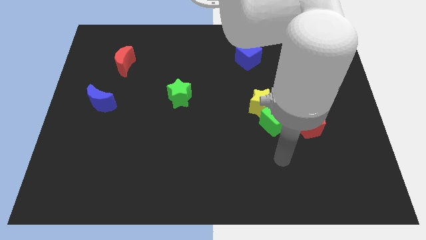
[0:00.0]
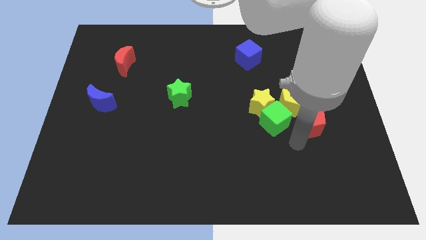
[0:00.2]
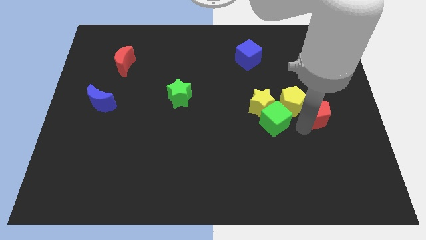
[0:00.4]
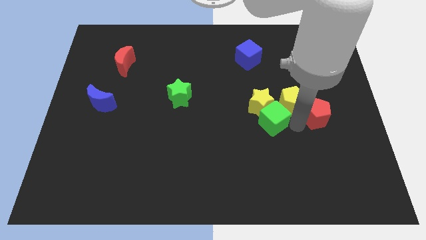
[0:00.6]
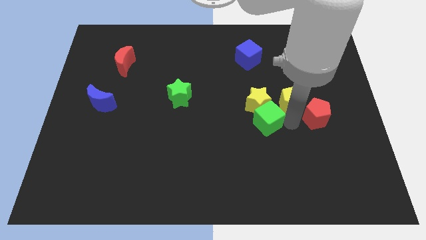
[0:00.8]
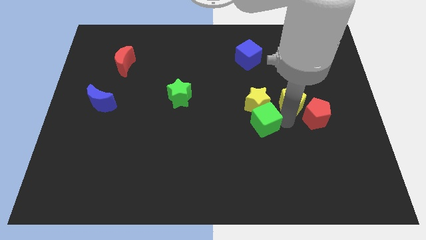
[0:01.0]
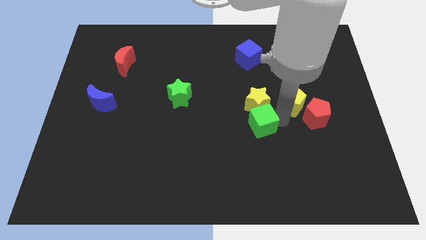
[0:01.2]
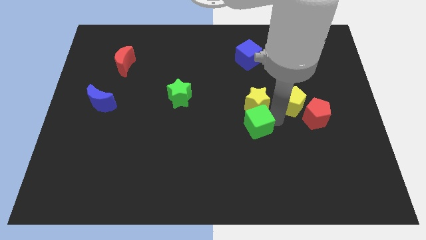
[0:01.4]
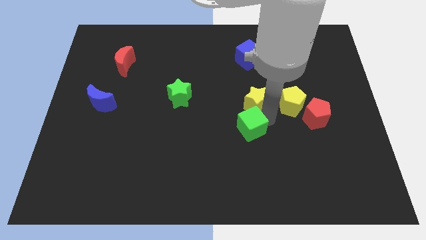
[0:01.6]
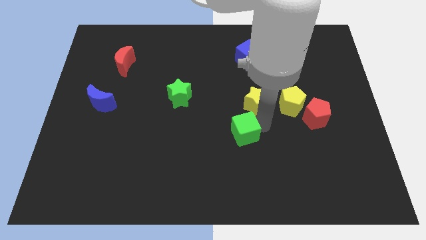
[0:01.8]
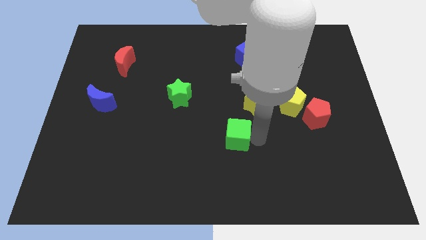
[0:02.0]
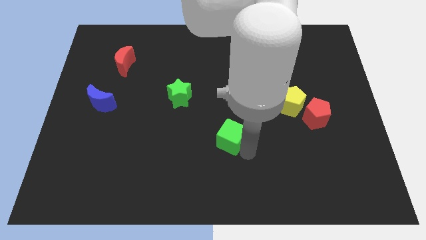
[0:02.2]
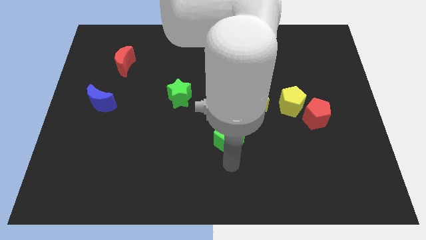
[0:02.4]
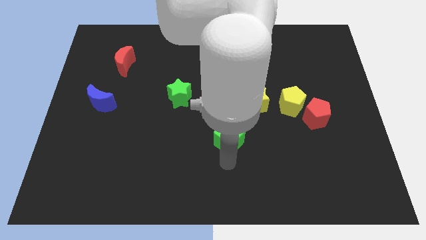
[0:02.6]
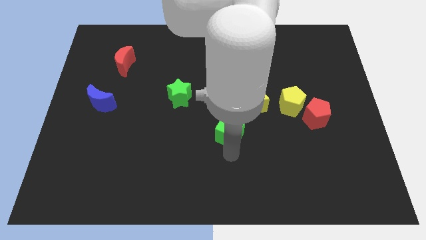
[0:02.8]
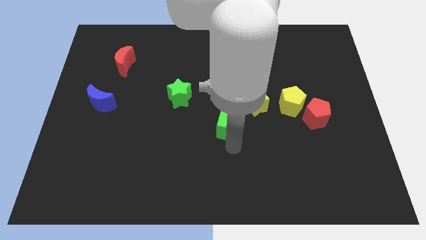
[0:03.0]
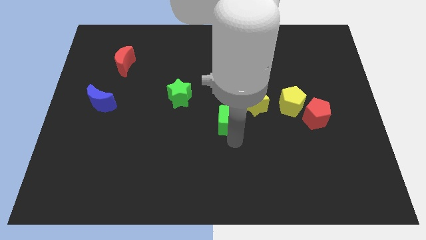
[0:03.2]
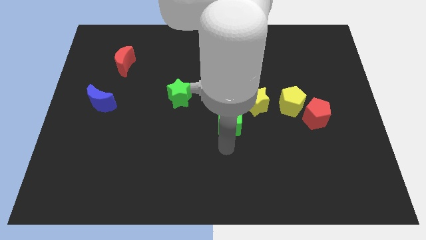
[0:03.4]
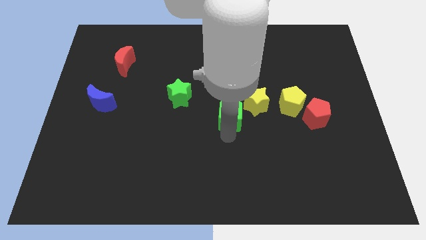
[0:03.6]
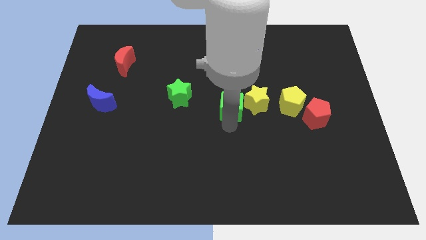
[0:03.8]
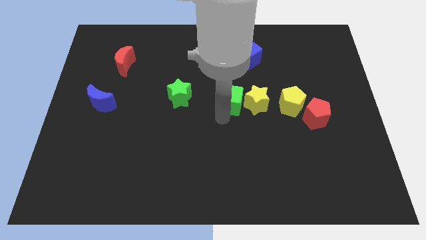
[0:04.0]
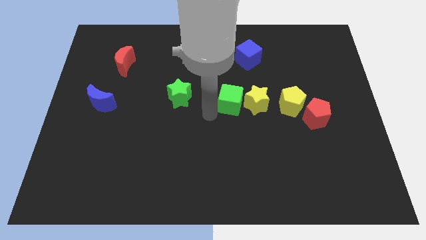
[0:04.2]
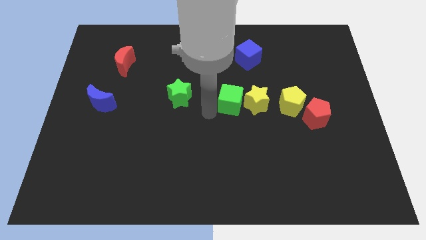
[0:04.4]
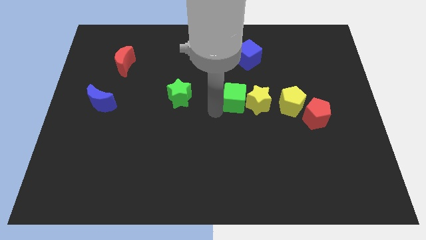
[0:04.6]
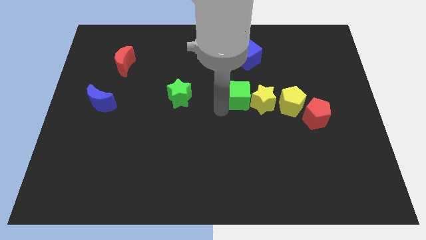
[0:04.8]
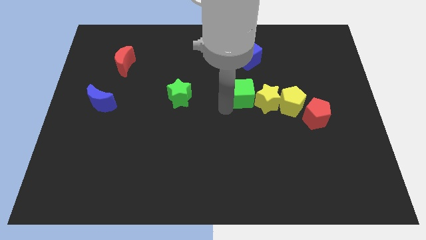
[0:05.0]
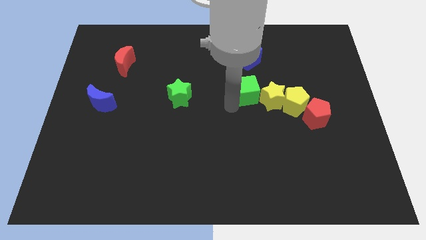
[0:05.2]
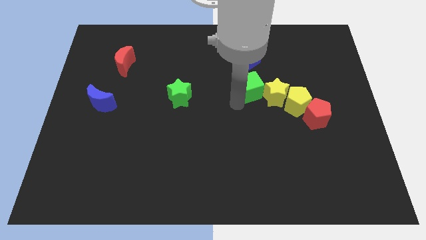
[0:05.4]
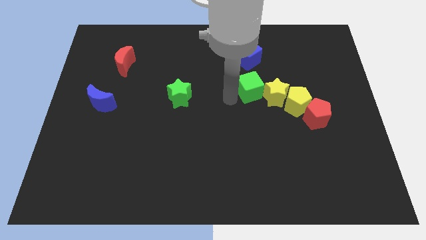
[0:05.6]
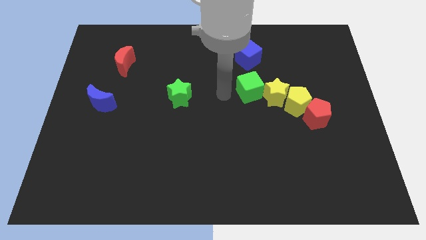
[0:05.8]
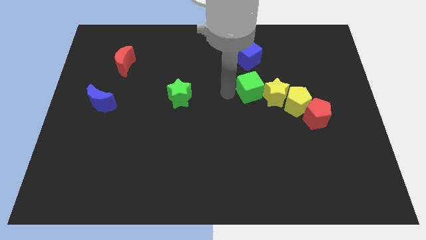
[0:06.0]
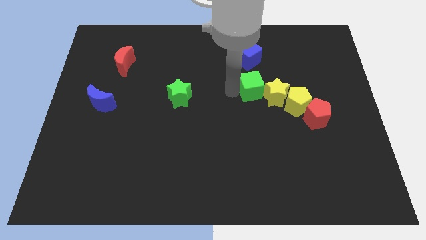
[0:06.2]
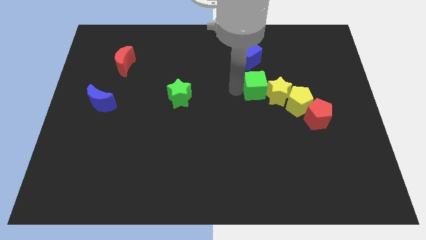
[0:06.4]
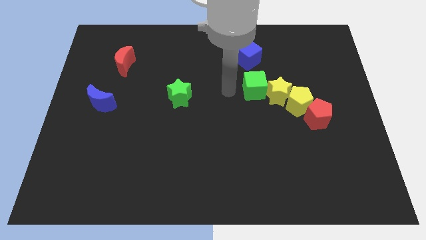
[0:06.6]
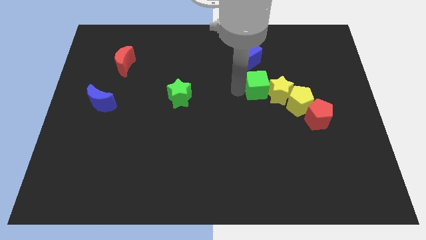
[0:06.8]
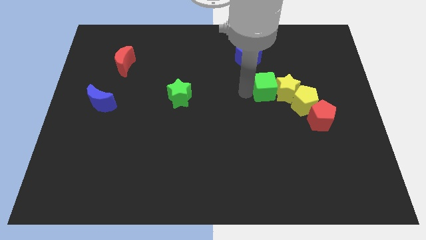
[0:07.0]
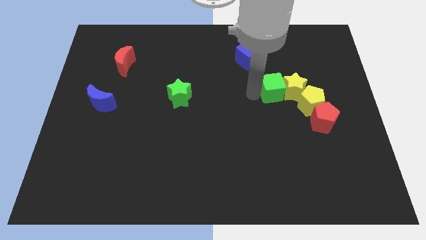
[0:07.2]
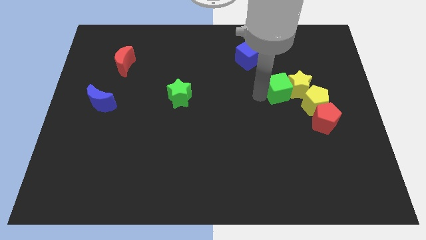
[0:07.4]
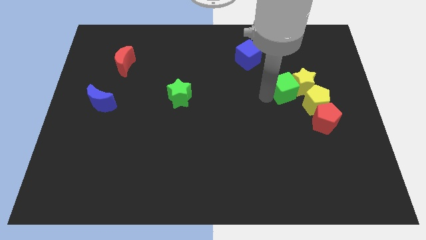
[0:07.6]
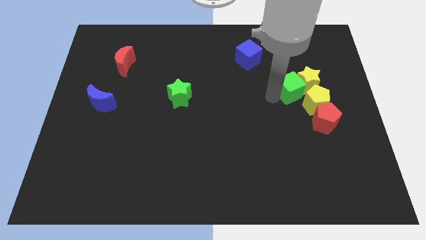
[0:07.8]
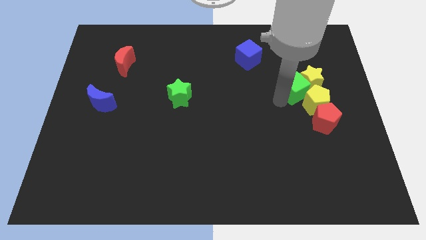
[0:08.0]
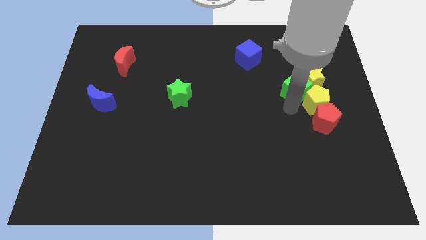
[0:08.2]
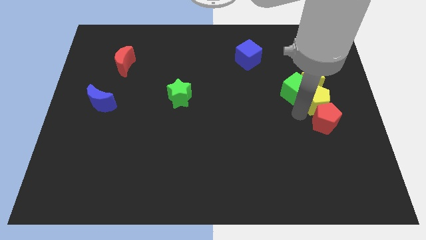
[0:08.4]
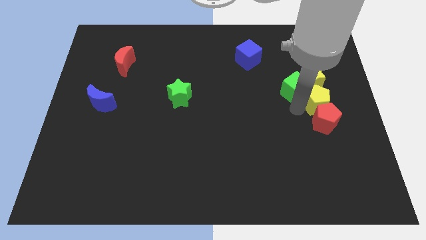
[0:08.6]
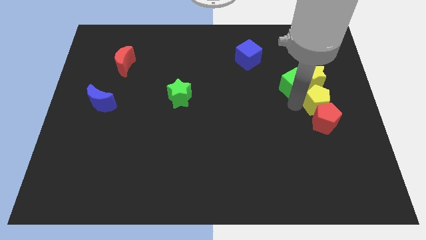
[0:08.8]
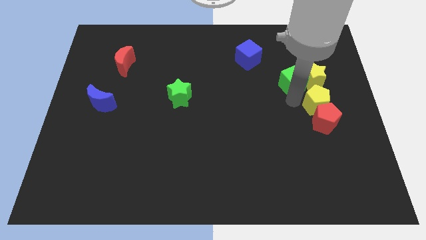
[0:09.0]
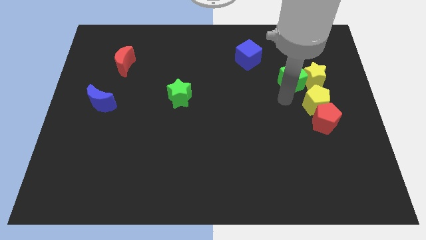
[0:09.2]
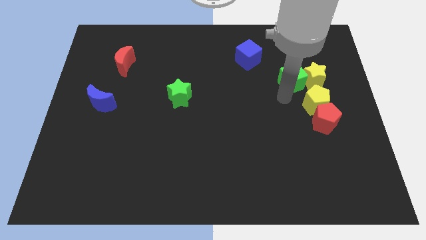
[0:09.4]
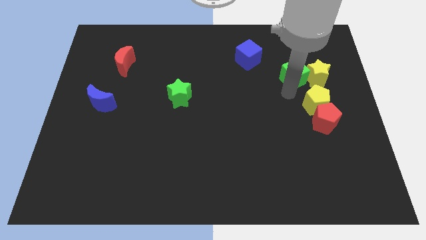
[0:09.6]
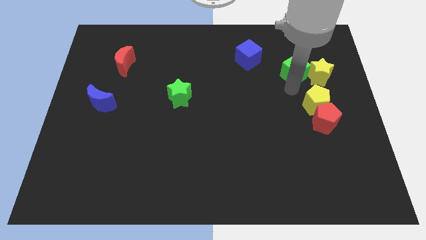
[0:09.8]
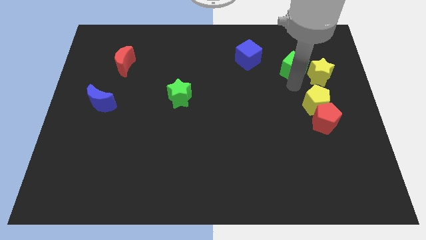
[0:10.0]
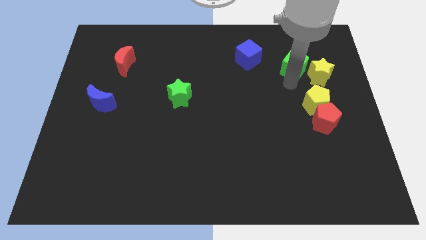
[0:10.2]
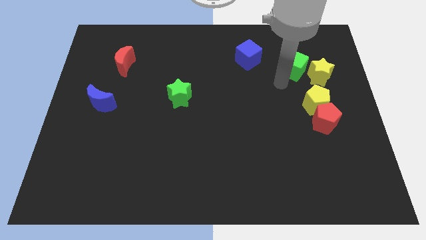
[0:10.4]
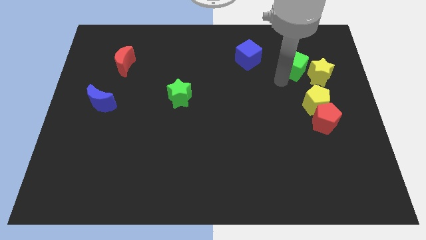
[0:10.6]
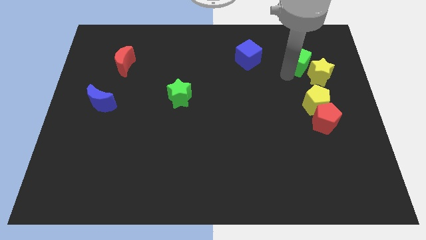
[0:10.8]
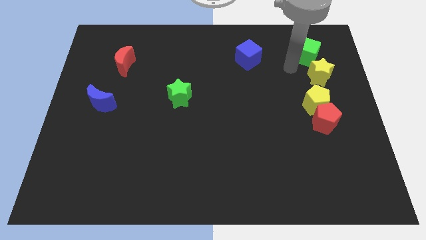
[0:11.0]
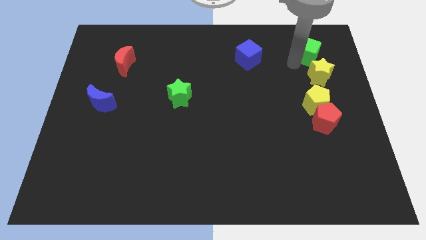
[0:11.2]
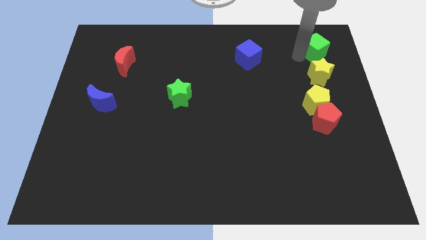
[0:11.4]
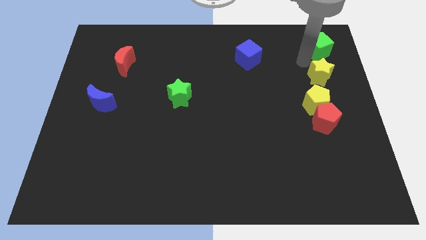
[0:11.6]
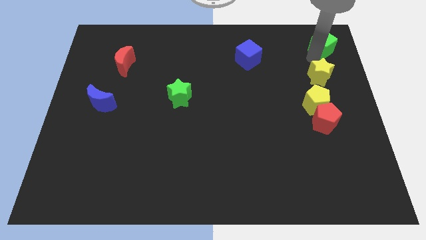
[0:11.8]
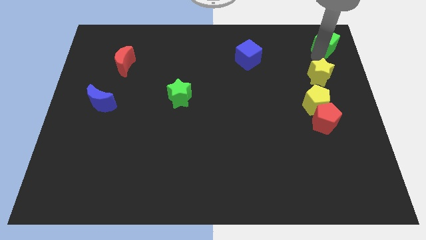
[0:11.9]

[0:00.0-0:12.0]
move the green cube to the top right of the board
